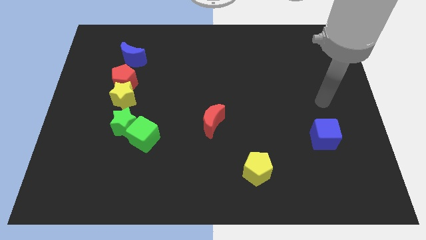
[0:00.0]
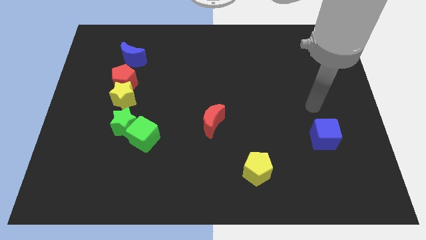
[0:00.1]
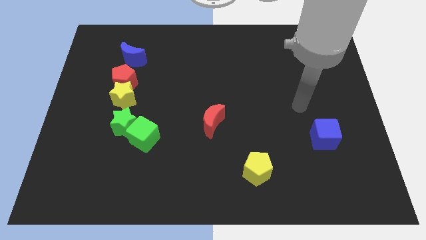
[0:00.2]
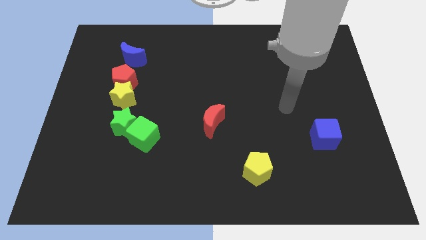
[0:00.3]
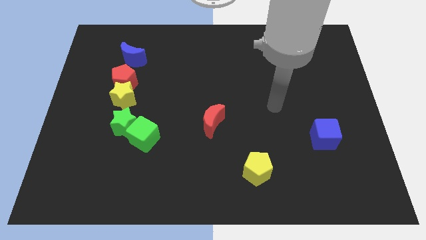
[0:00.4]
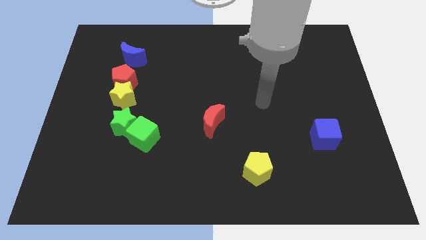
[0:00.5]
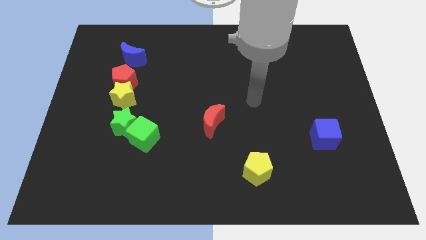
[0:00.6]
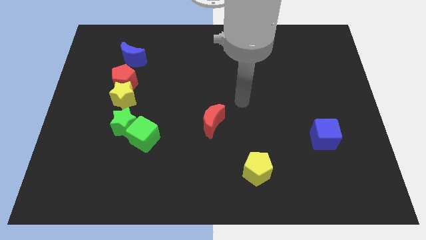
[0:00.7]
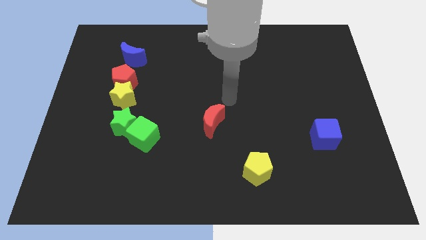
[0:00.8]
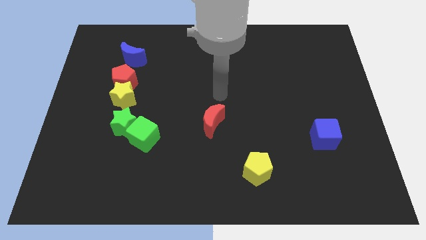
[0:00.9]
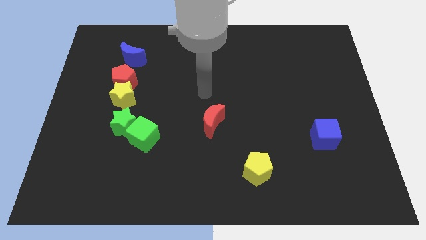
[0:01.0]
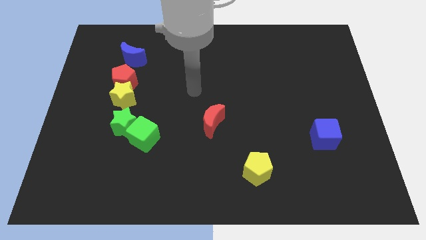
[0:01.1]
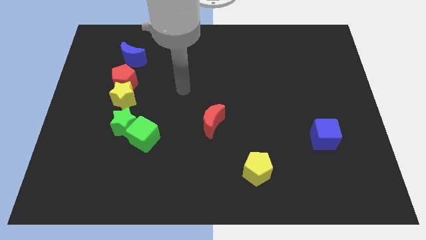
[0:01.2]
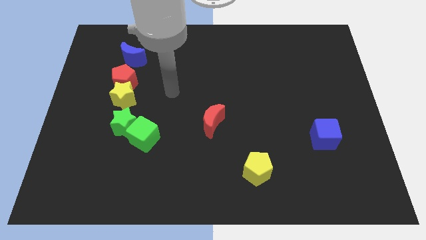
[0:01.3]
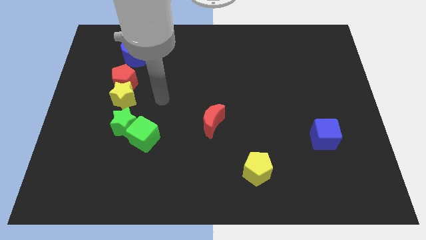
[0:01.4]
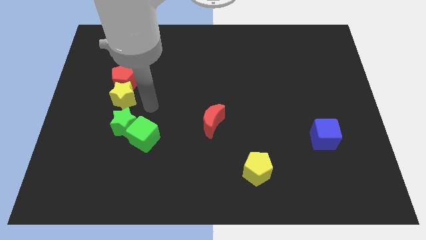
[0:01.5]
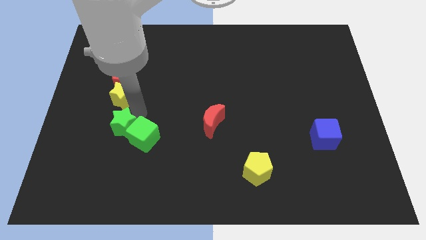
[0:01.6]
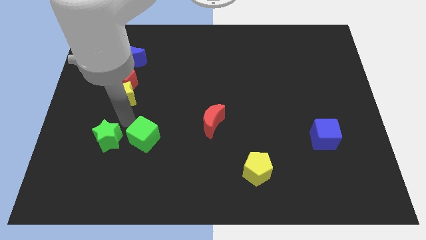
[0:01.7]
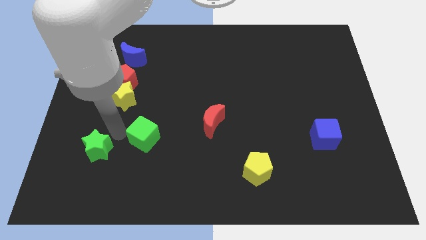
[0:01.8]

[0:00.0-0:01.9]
separate the green cube from the green star

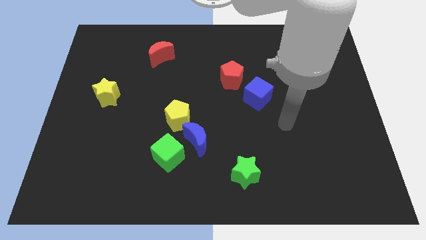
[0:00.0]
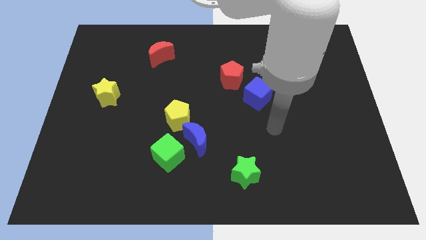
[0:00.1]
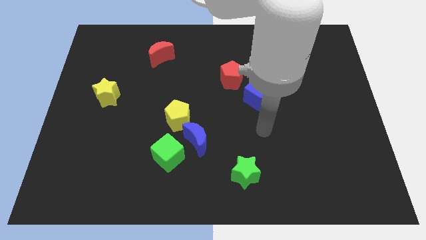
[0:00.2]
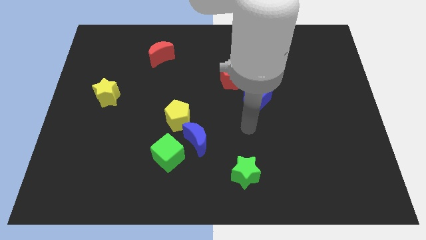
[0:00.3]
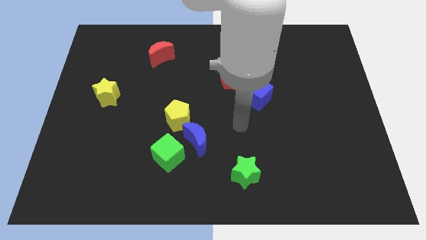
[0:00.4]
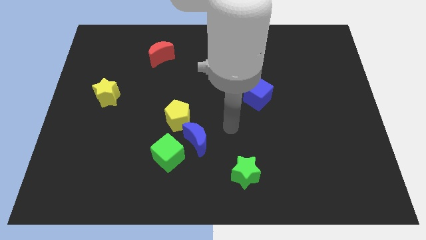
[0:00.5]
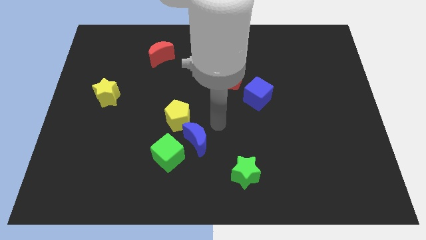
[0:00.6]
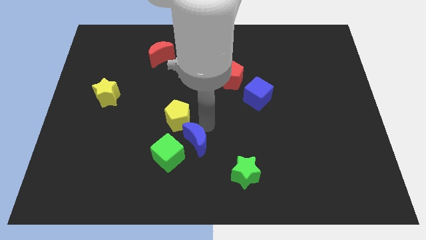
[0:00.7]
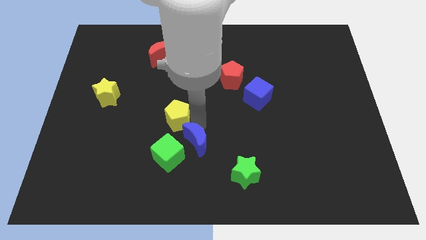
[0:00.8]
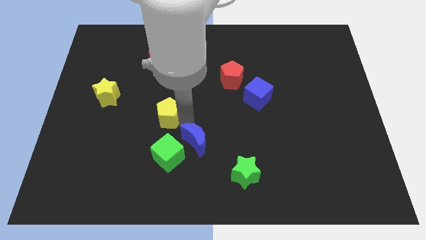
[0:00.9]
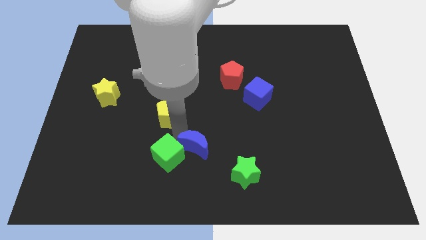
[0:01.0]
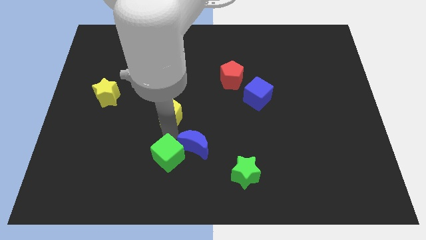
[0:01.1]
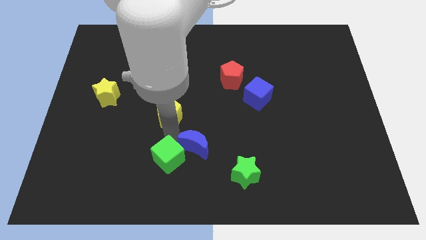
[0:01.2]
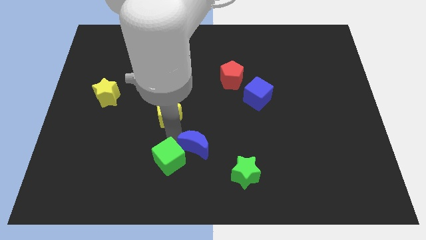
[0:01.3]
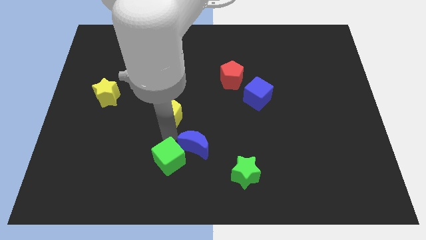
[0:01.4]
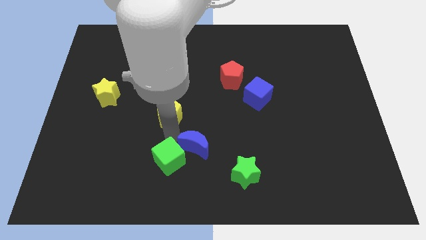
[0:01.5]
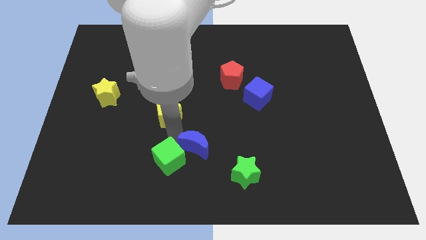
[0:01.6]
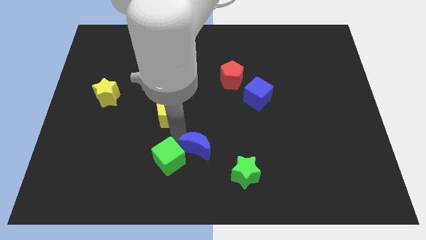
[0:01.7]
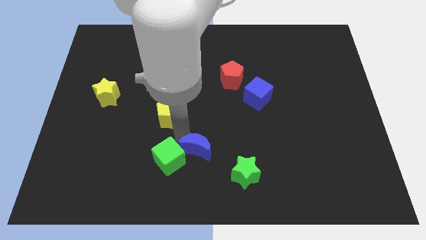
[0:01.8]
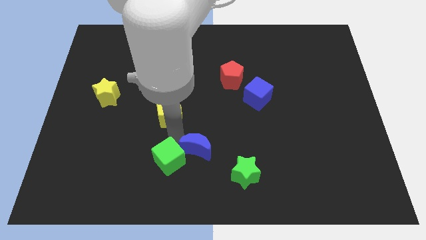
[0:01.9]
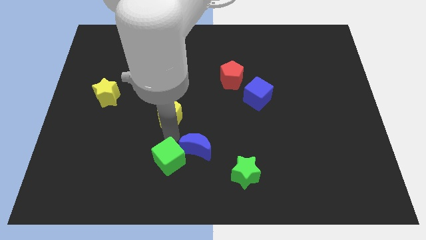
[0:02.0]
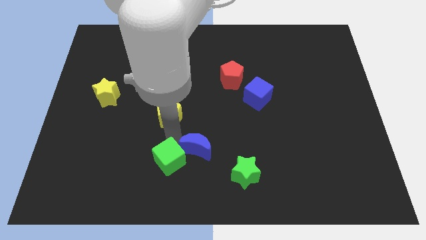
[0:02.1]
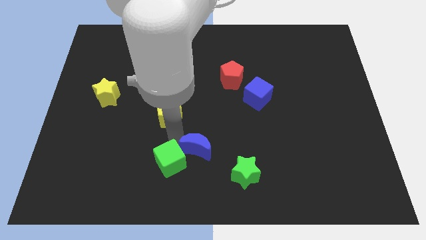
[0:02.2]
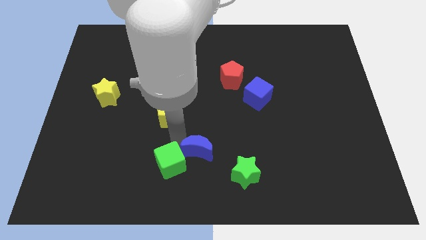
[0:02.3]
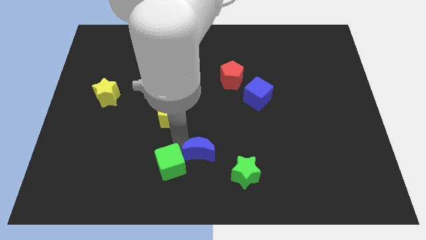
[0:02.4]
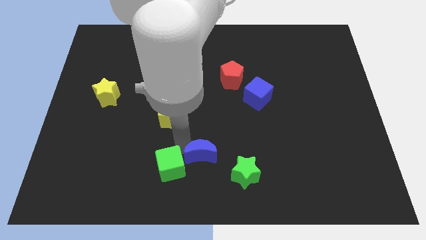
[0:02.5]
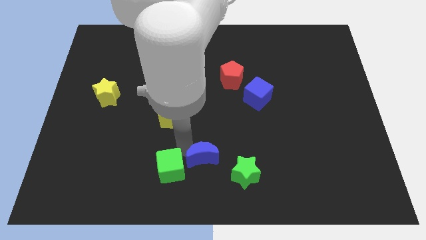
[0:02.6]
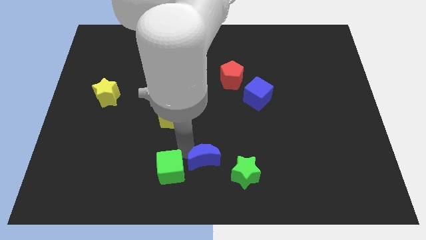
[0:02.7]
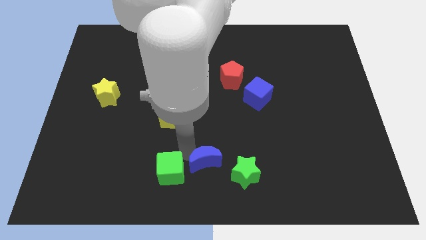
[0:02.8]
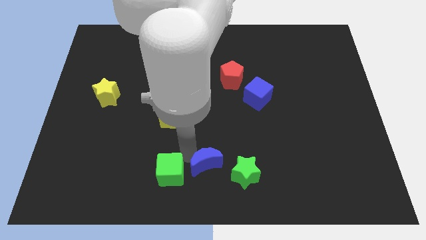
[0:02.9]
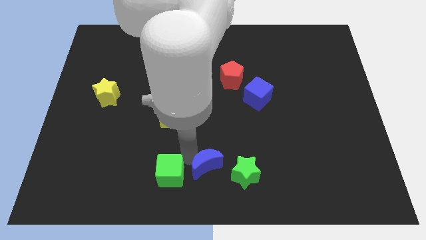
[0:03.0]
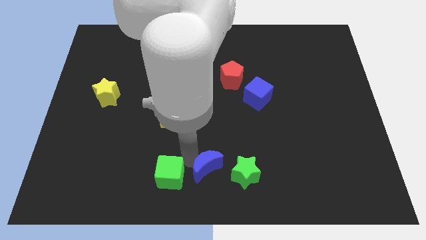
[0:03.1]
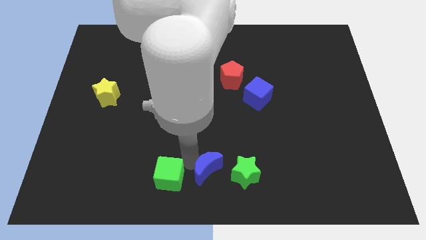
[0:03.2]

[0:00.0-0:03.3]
separate the blue moon from the green cube and yellow pentagon

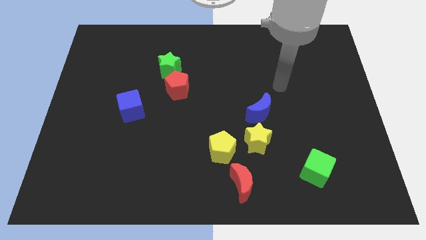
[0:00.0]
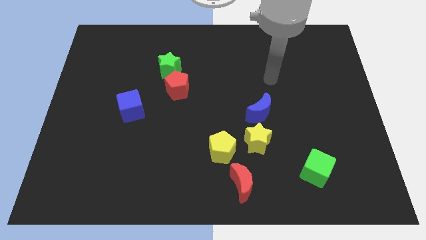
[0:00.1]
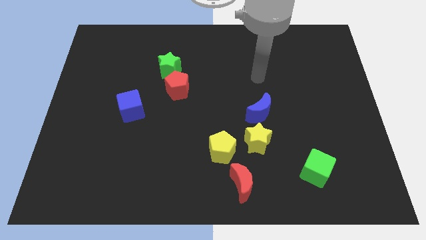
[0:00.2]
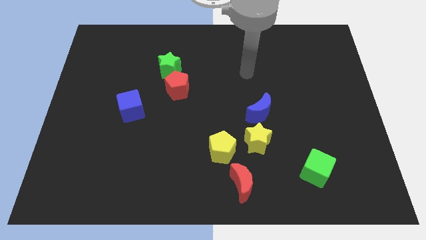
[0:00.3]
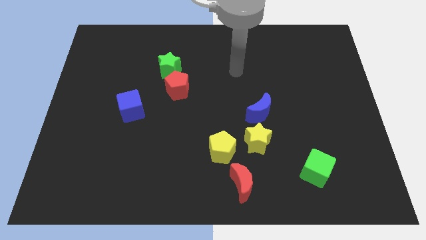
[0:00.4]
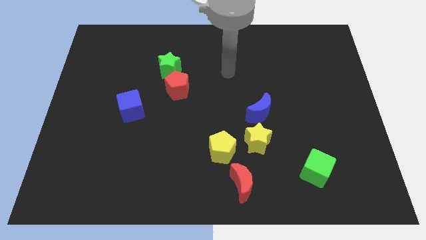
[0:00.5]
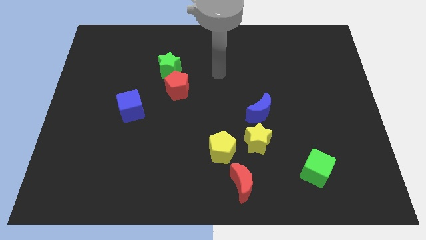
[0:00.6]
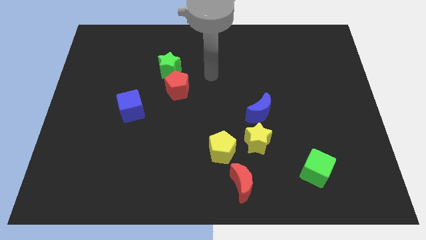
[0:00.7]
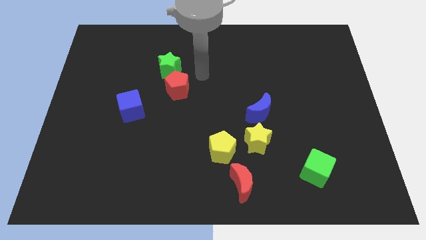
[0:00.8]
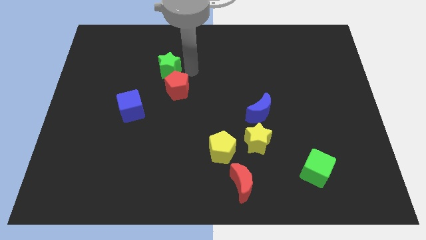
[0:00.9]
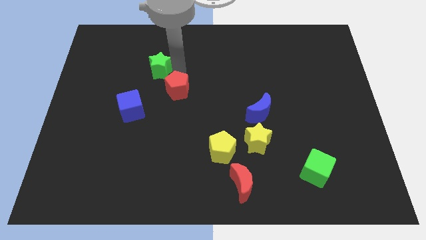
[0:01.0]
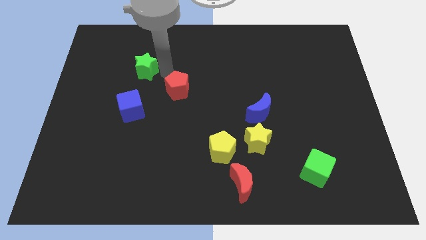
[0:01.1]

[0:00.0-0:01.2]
move the red pentagon away from the green star

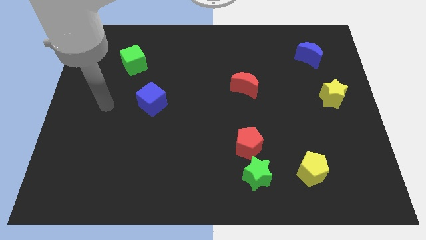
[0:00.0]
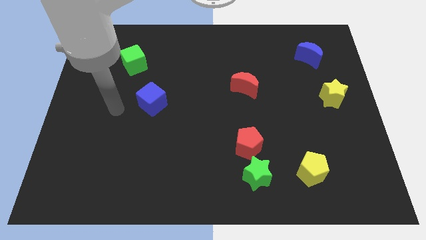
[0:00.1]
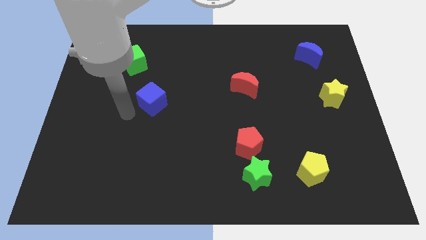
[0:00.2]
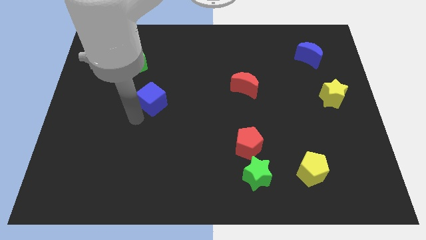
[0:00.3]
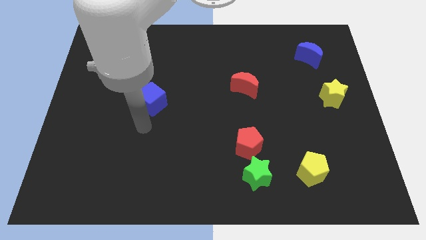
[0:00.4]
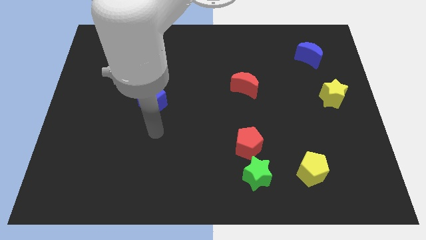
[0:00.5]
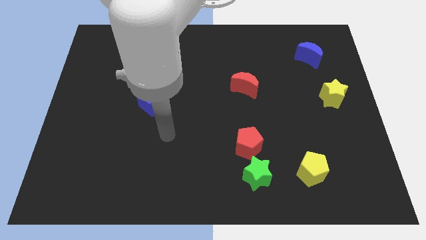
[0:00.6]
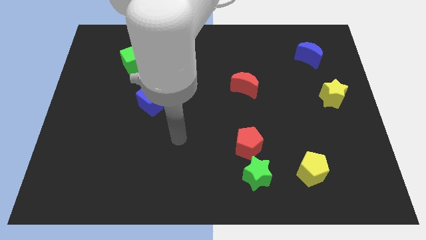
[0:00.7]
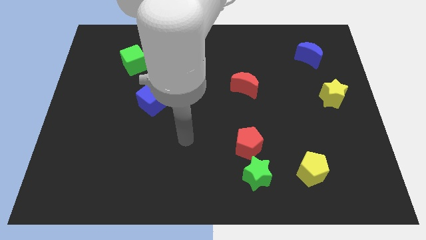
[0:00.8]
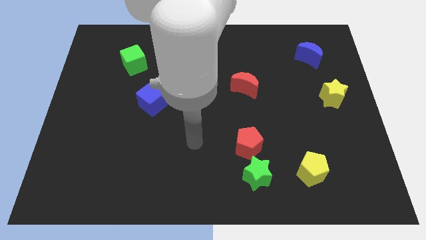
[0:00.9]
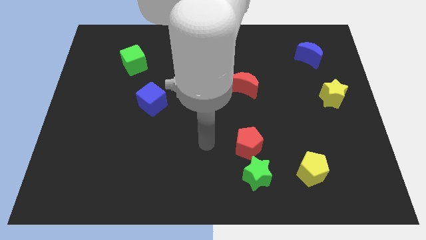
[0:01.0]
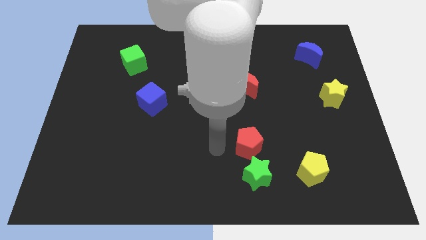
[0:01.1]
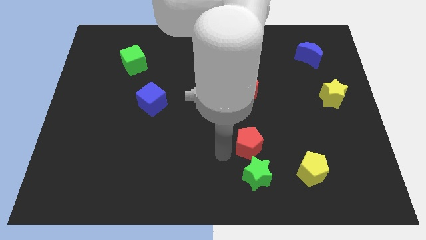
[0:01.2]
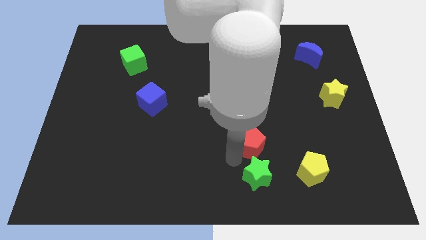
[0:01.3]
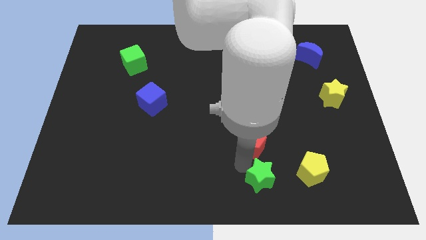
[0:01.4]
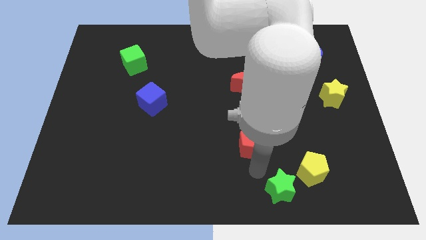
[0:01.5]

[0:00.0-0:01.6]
separate the red pentagon from the green star

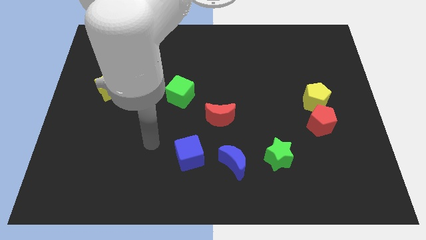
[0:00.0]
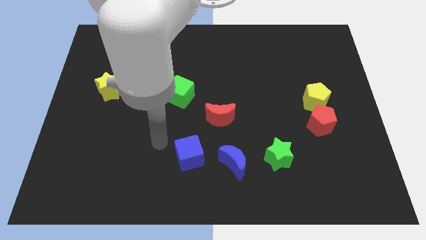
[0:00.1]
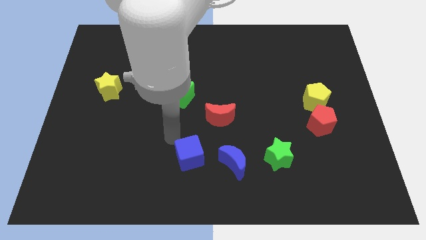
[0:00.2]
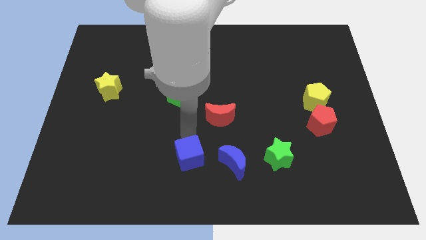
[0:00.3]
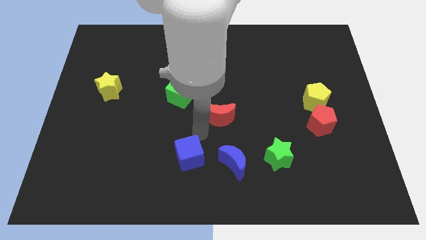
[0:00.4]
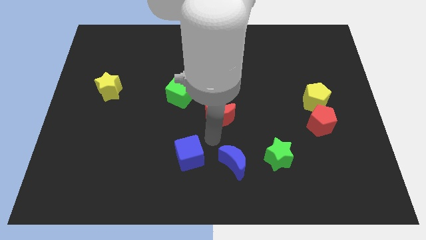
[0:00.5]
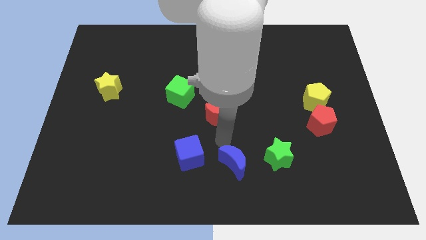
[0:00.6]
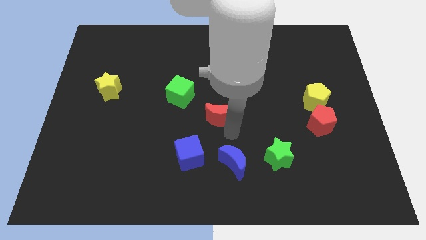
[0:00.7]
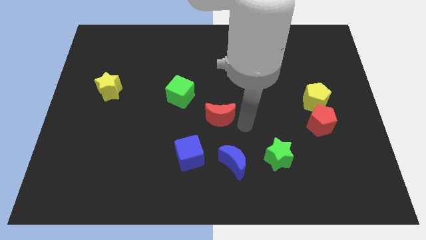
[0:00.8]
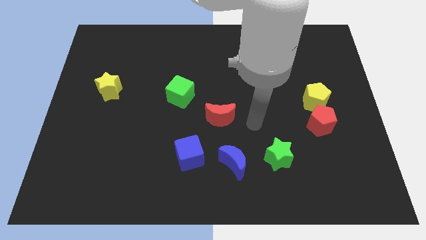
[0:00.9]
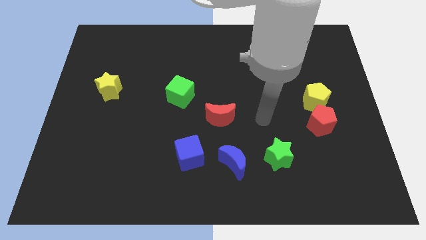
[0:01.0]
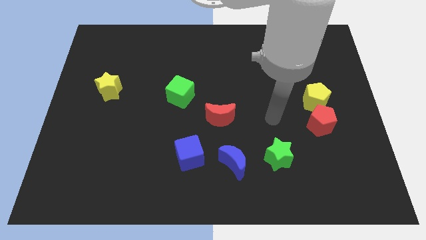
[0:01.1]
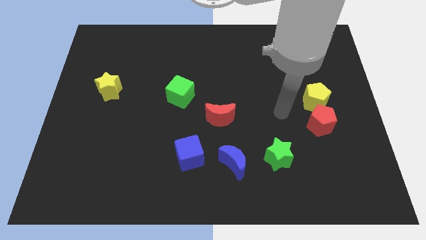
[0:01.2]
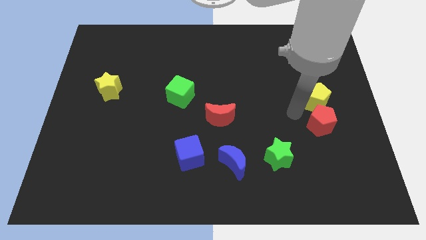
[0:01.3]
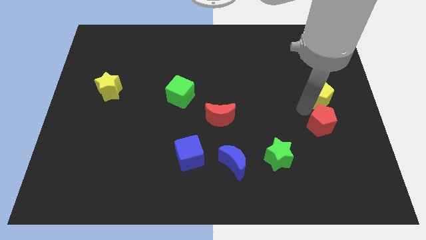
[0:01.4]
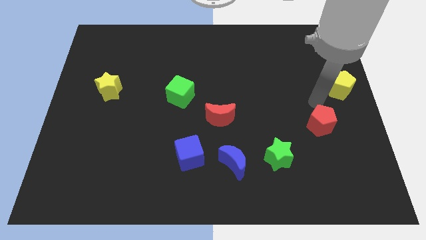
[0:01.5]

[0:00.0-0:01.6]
pull the red pentagon apart from the yellow pentagon
